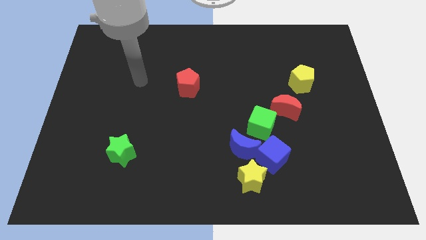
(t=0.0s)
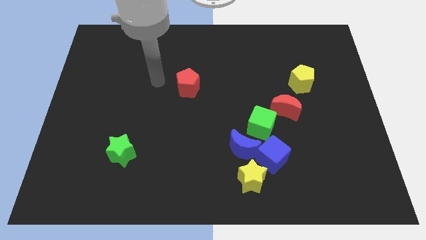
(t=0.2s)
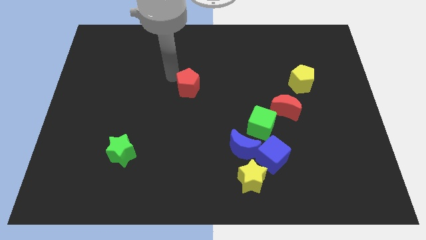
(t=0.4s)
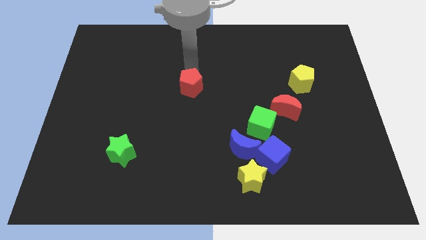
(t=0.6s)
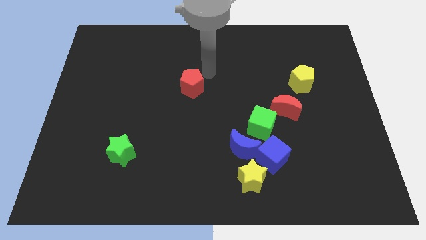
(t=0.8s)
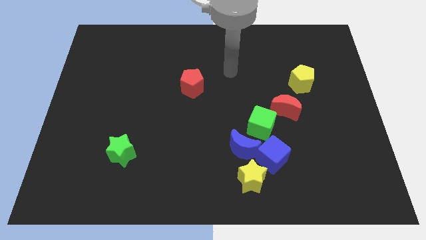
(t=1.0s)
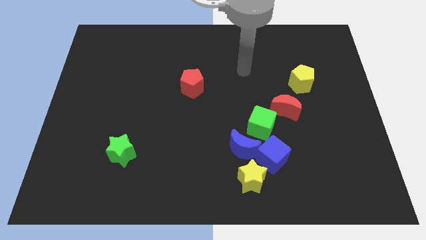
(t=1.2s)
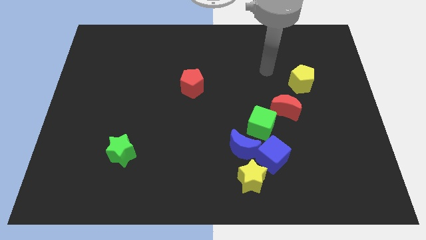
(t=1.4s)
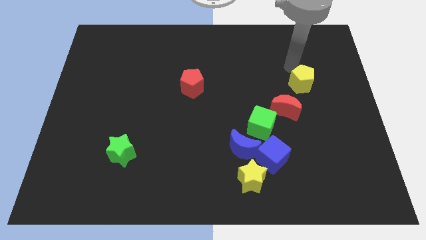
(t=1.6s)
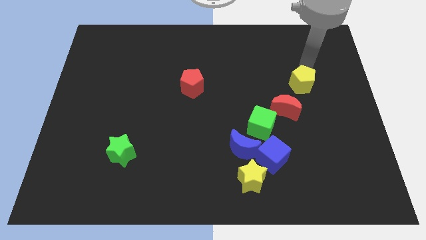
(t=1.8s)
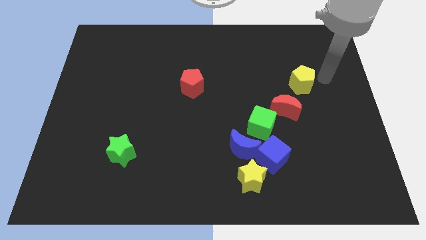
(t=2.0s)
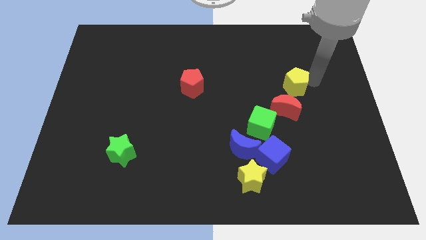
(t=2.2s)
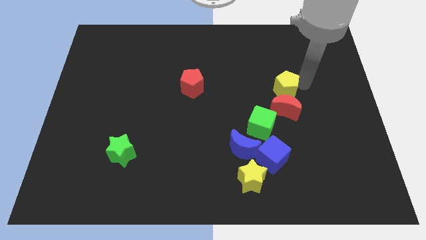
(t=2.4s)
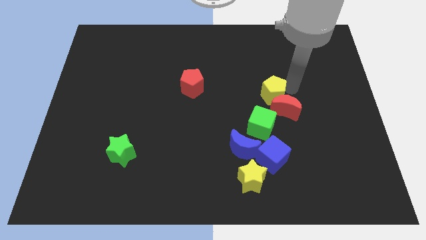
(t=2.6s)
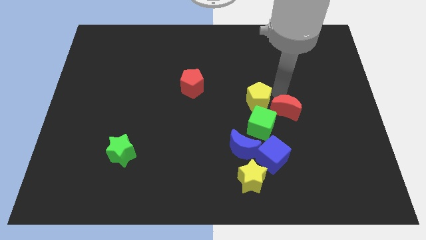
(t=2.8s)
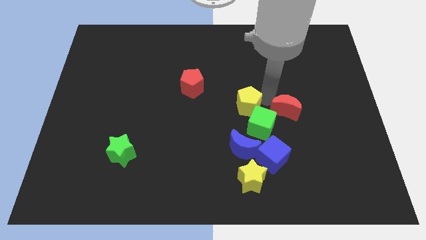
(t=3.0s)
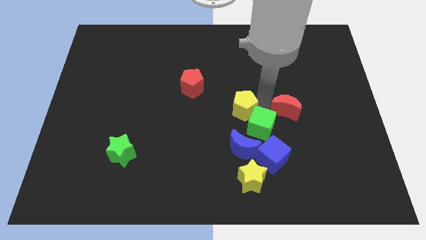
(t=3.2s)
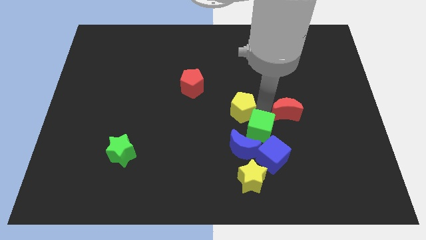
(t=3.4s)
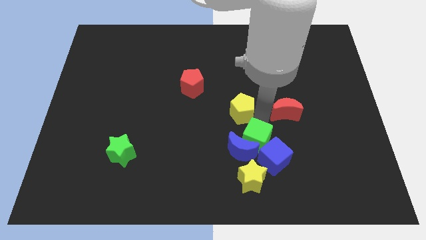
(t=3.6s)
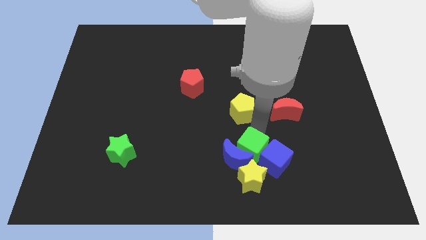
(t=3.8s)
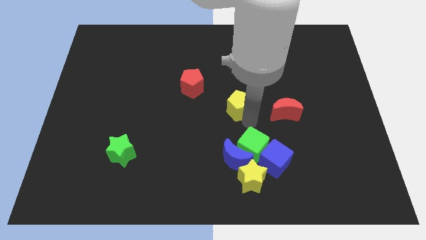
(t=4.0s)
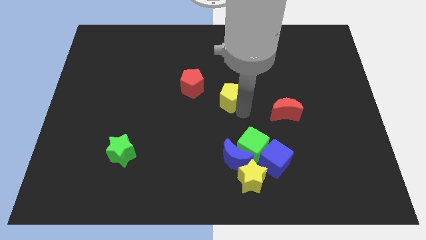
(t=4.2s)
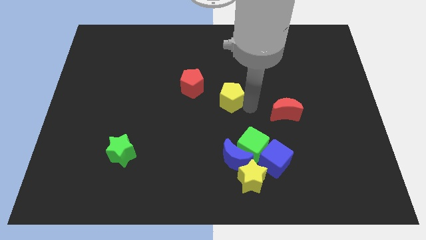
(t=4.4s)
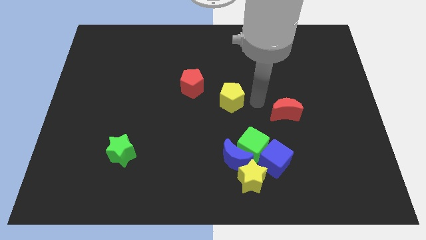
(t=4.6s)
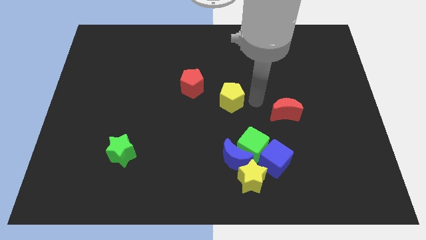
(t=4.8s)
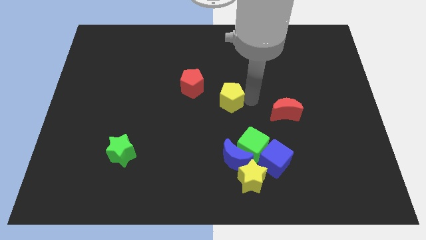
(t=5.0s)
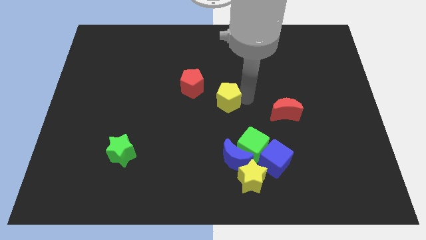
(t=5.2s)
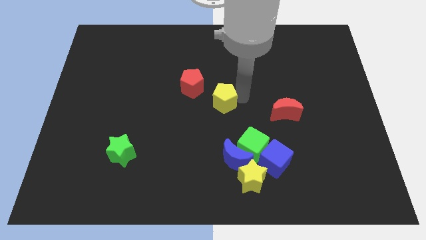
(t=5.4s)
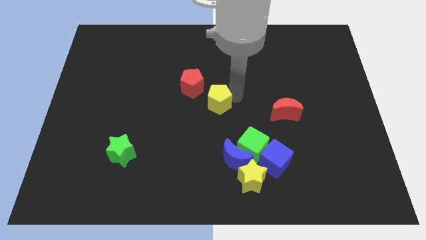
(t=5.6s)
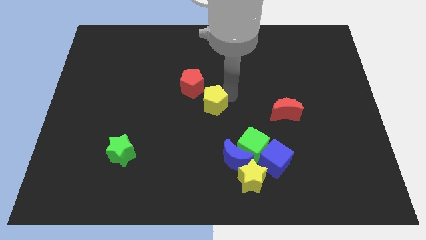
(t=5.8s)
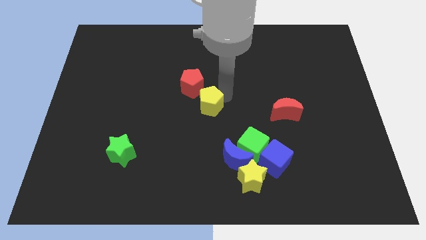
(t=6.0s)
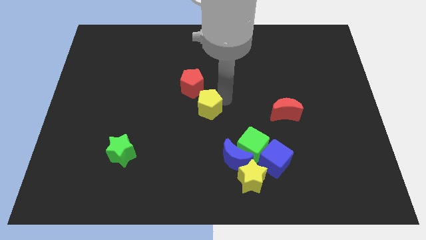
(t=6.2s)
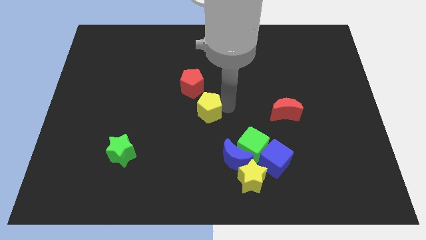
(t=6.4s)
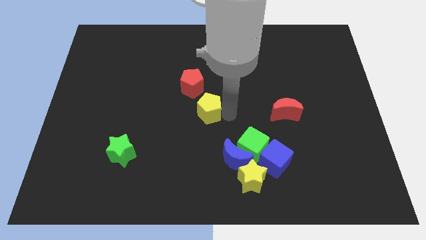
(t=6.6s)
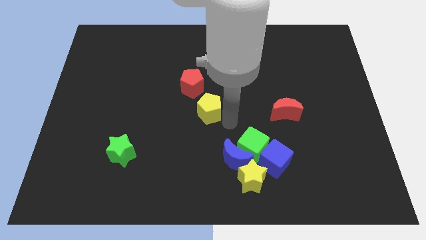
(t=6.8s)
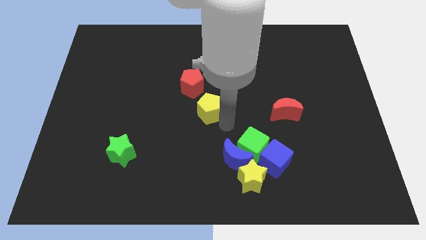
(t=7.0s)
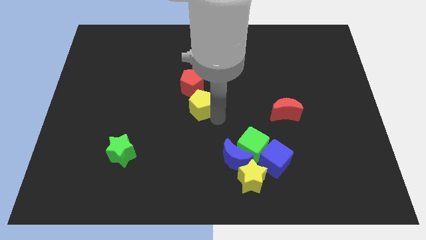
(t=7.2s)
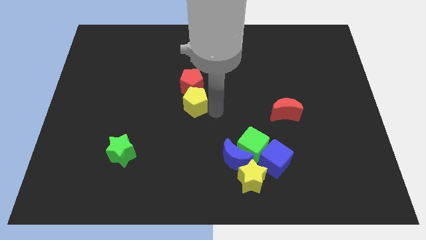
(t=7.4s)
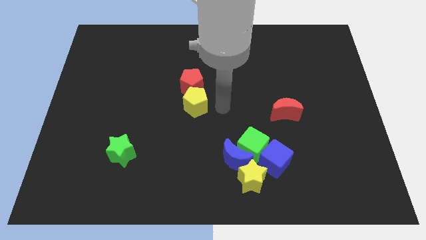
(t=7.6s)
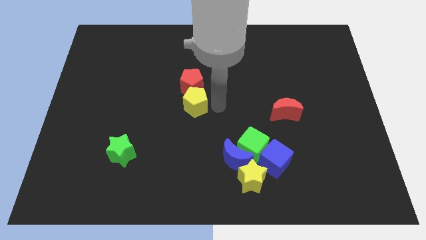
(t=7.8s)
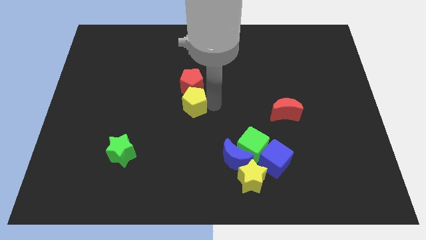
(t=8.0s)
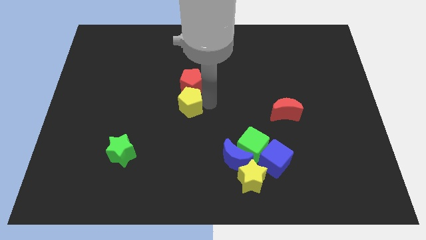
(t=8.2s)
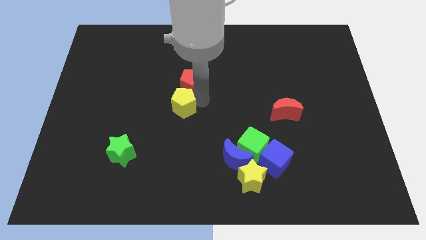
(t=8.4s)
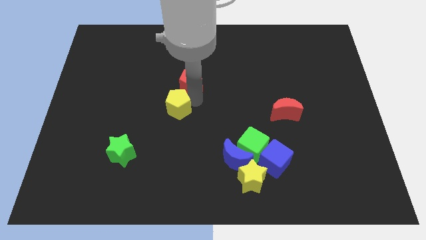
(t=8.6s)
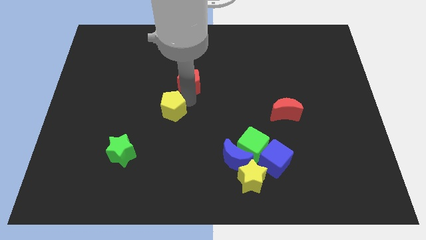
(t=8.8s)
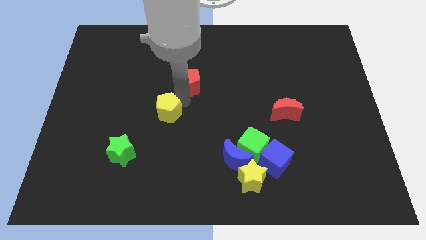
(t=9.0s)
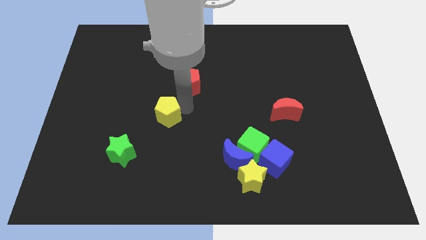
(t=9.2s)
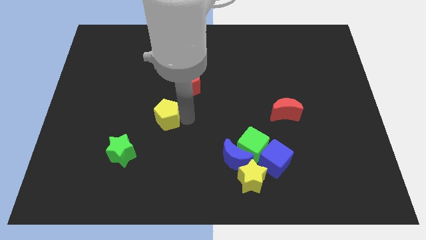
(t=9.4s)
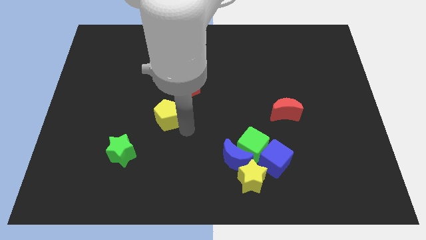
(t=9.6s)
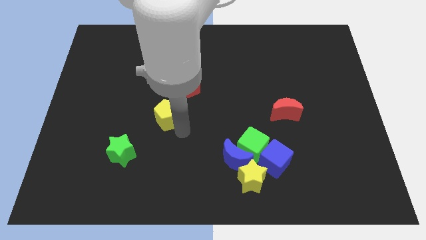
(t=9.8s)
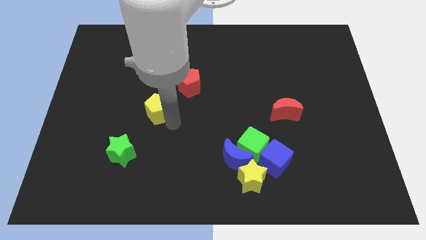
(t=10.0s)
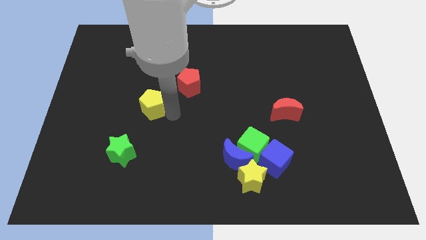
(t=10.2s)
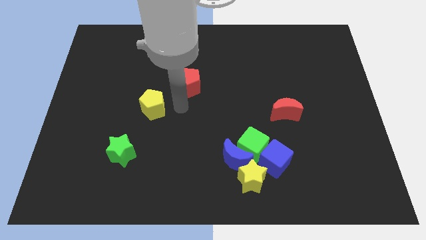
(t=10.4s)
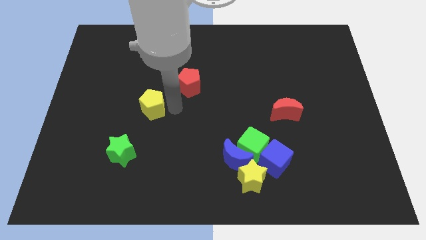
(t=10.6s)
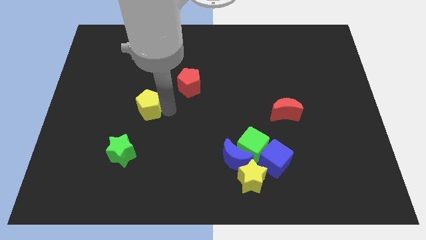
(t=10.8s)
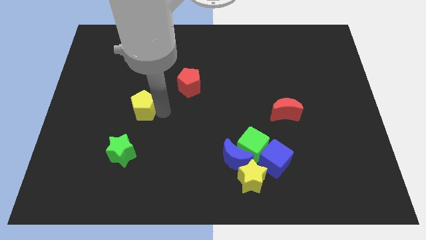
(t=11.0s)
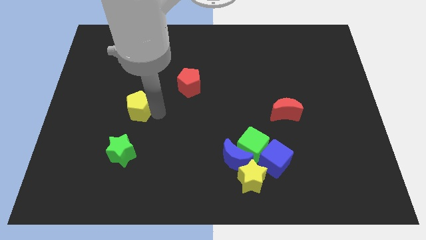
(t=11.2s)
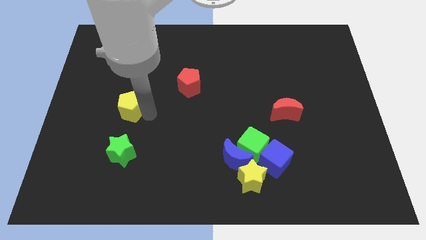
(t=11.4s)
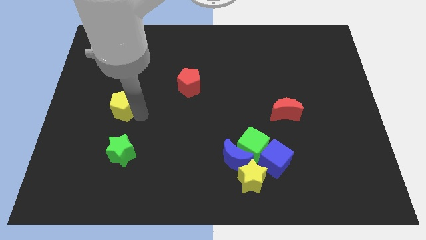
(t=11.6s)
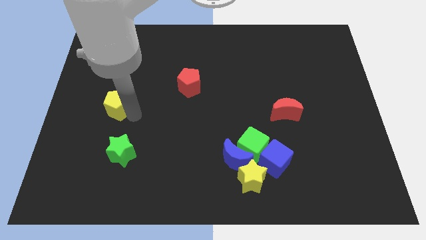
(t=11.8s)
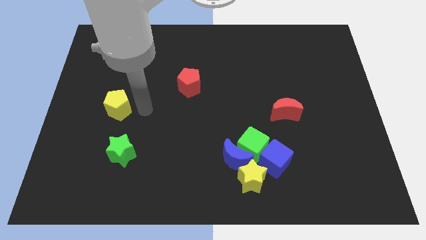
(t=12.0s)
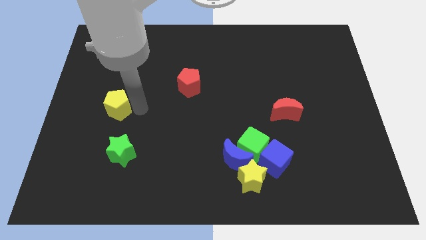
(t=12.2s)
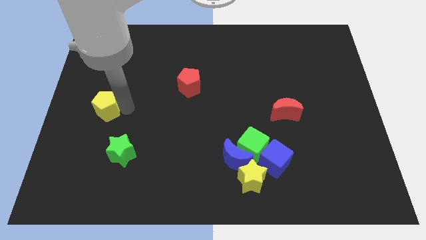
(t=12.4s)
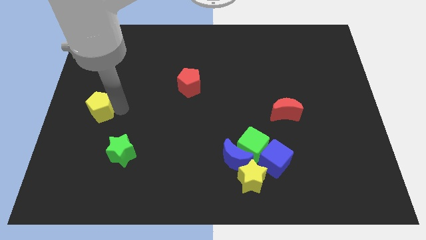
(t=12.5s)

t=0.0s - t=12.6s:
put the yellow pentagon to the center left

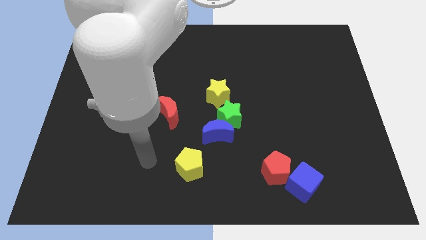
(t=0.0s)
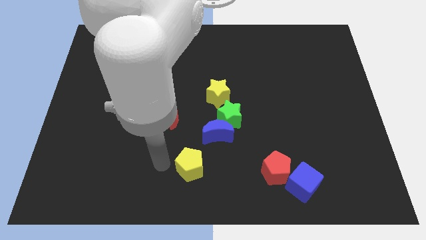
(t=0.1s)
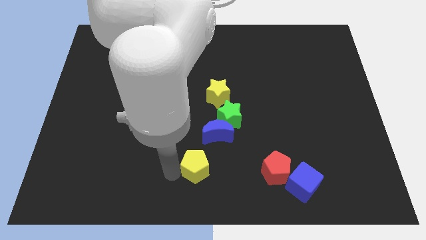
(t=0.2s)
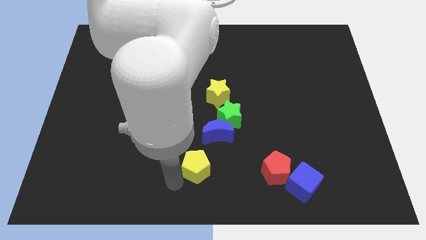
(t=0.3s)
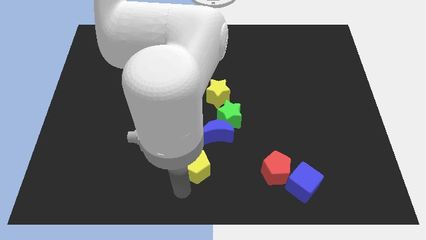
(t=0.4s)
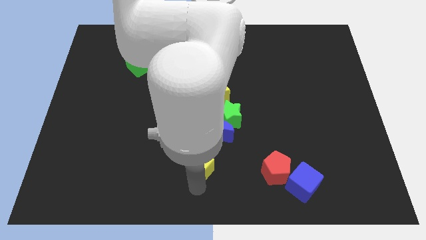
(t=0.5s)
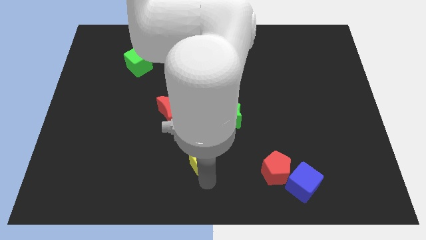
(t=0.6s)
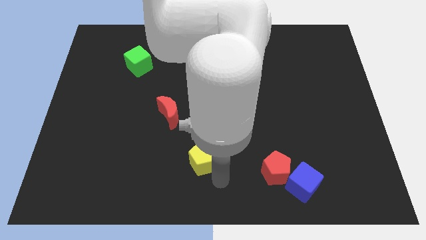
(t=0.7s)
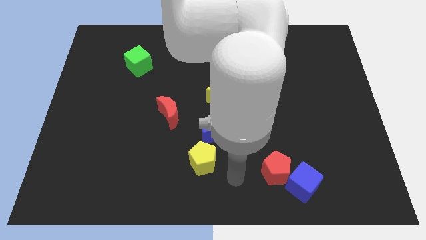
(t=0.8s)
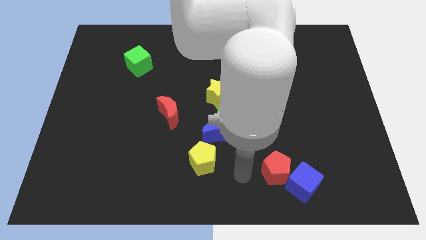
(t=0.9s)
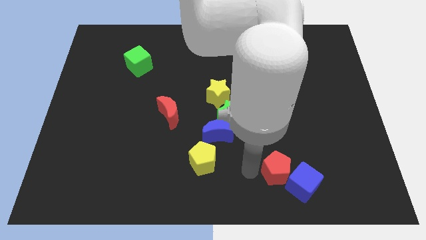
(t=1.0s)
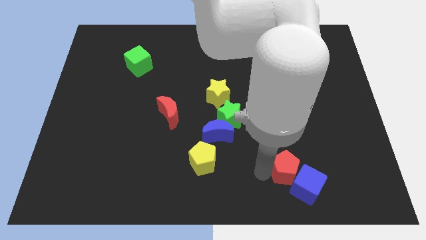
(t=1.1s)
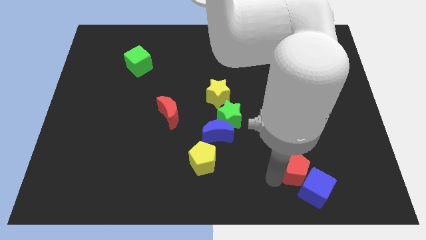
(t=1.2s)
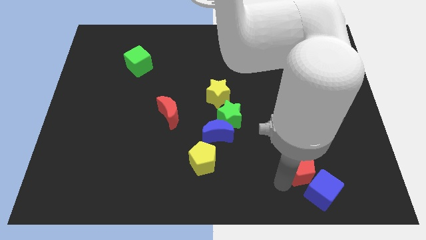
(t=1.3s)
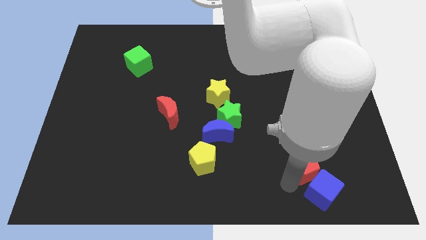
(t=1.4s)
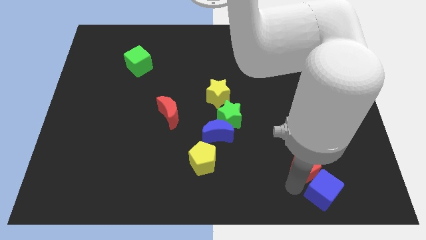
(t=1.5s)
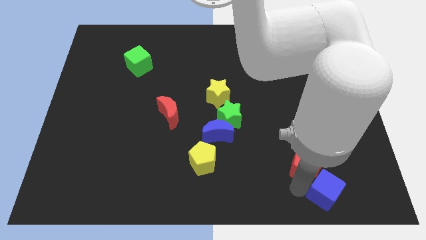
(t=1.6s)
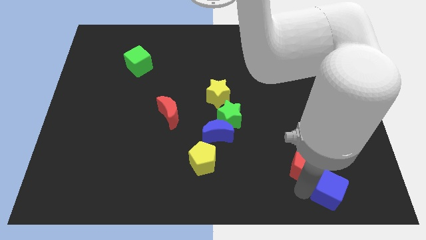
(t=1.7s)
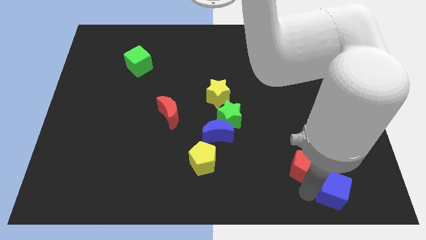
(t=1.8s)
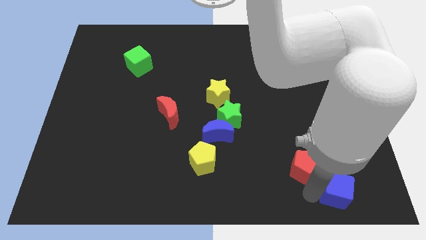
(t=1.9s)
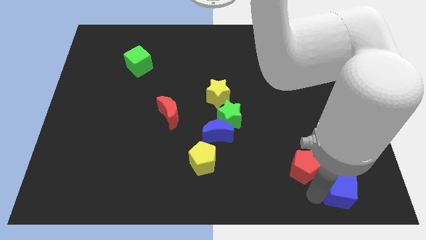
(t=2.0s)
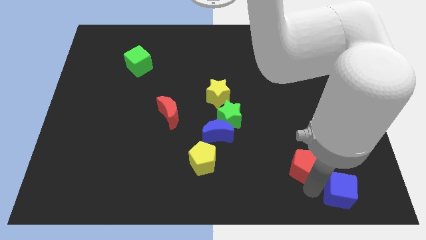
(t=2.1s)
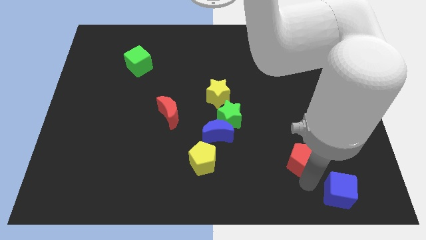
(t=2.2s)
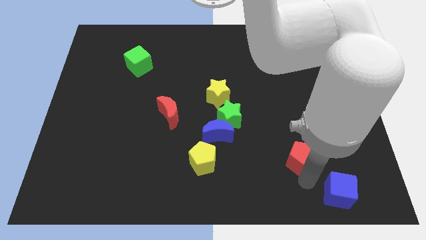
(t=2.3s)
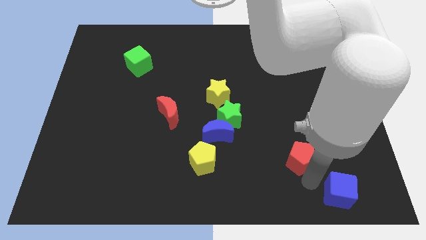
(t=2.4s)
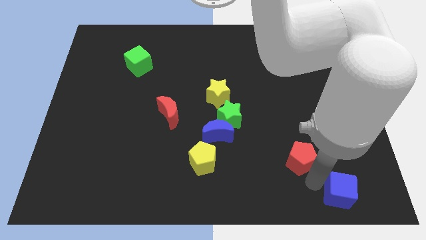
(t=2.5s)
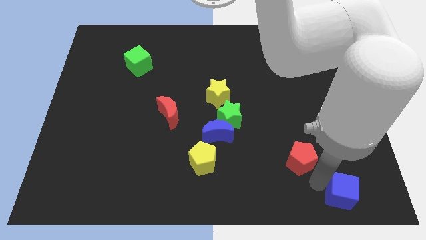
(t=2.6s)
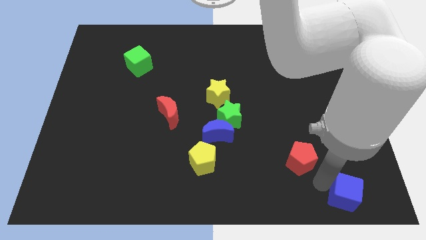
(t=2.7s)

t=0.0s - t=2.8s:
put the blue cube to the bottom right of the board
